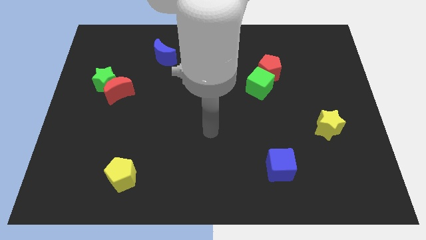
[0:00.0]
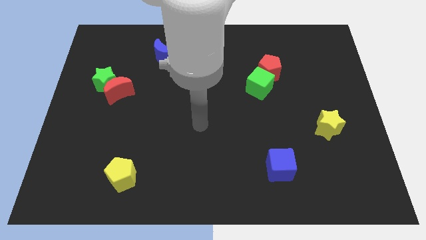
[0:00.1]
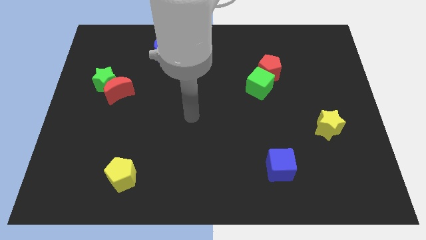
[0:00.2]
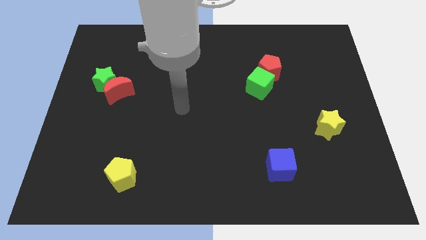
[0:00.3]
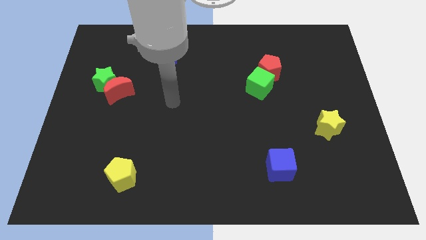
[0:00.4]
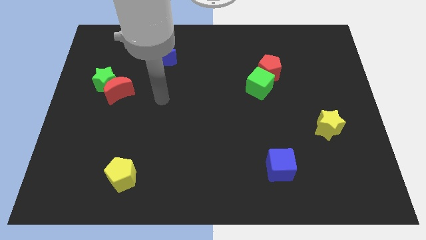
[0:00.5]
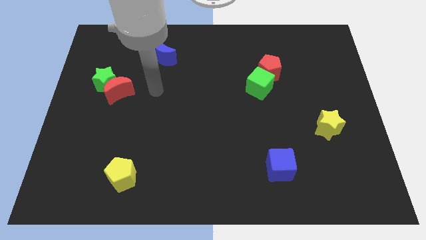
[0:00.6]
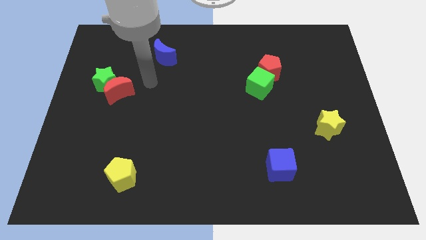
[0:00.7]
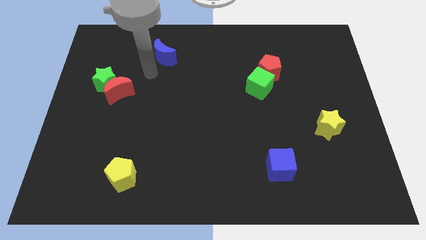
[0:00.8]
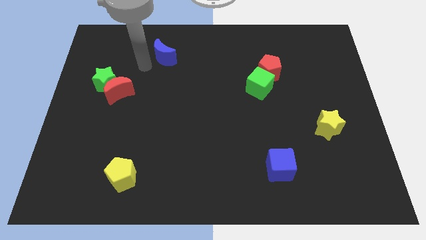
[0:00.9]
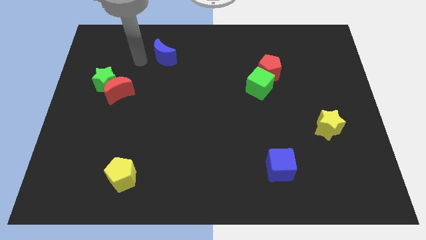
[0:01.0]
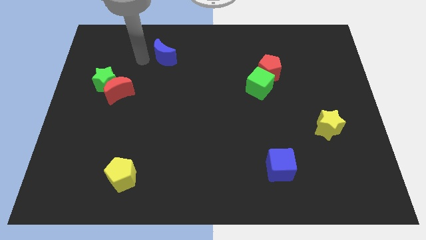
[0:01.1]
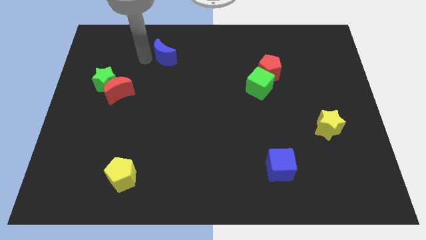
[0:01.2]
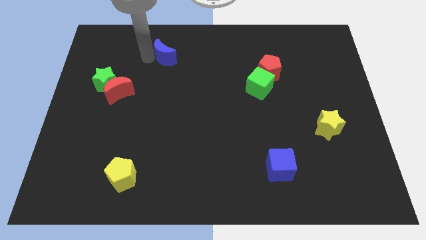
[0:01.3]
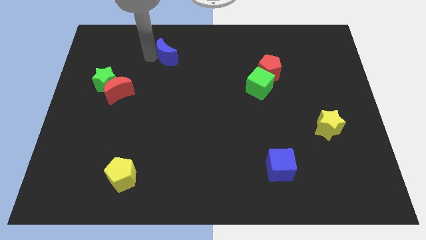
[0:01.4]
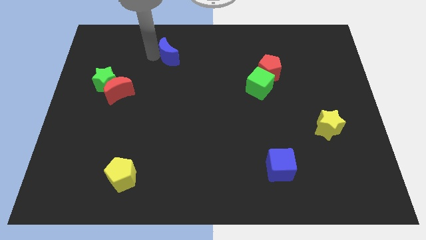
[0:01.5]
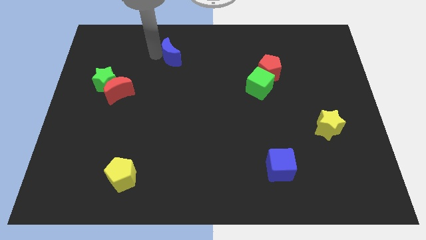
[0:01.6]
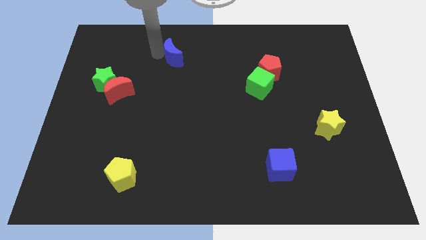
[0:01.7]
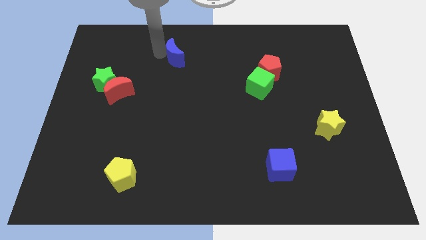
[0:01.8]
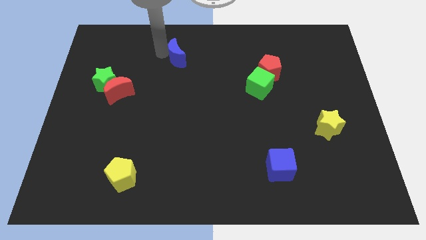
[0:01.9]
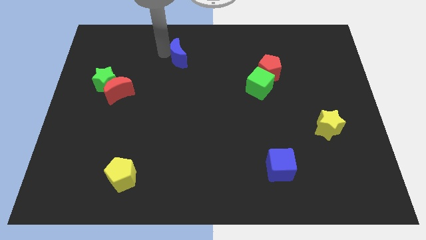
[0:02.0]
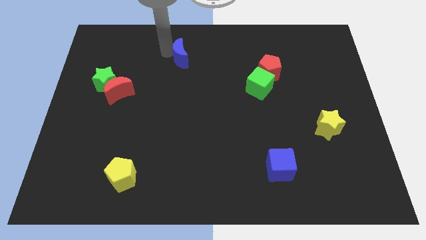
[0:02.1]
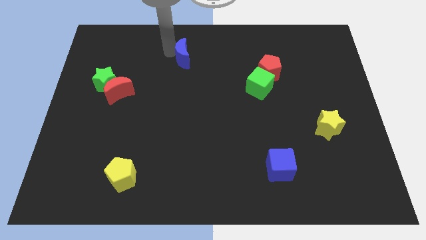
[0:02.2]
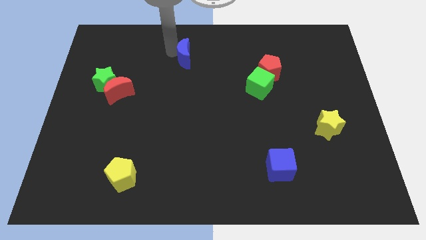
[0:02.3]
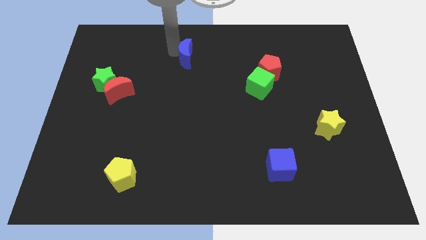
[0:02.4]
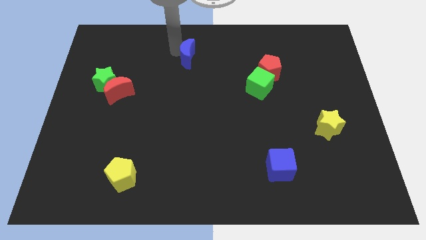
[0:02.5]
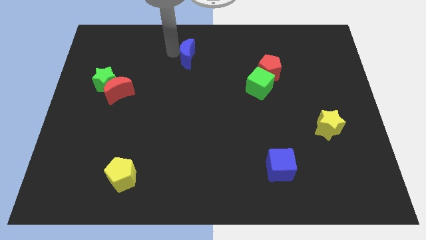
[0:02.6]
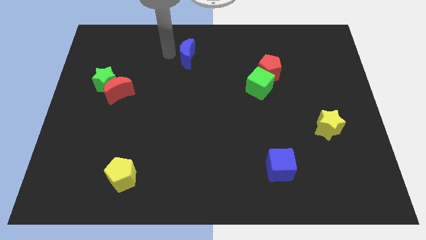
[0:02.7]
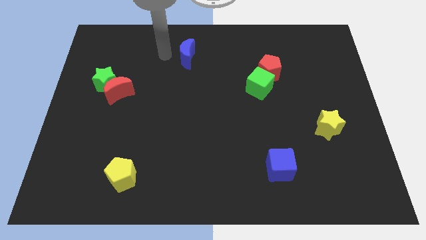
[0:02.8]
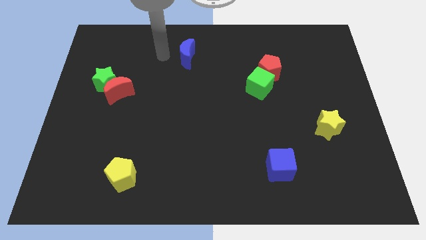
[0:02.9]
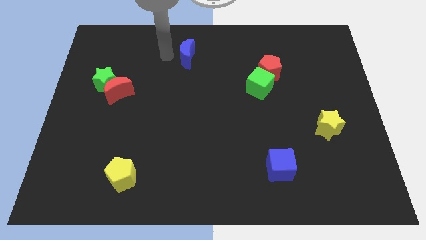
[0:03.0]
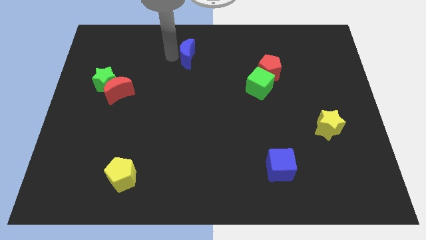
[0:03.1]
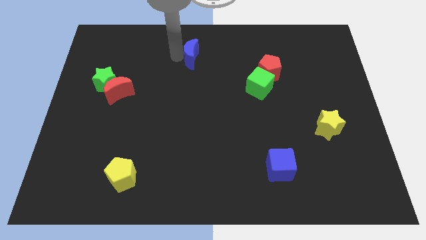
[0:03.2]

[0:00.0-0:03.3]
slightly slide the blue moon right

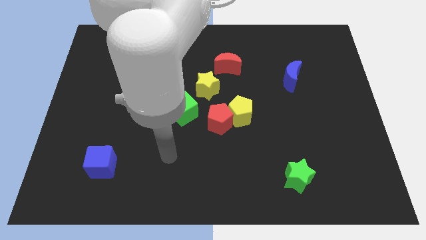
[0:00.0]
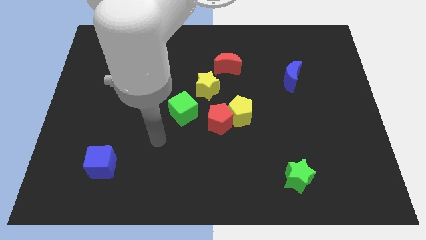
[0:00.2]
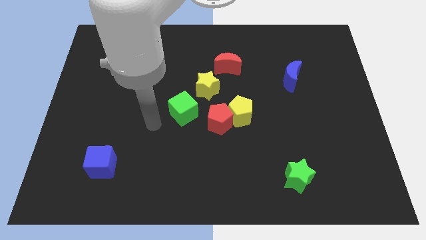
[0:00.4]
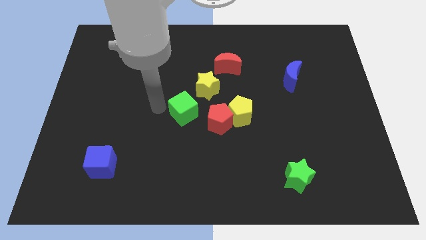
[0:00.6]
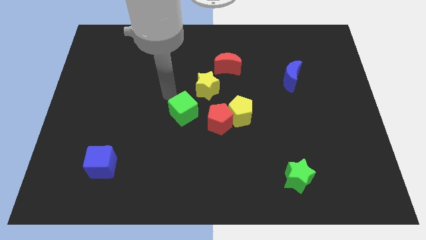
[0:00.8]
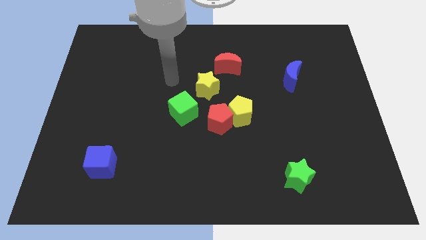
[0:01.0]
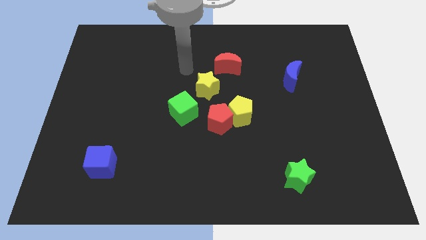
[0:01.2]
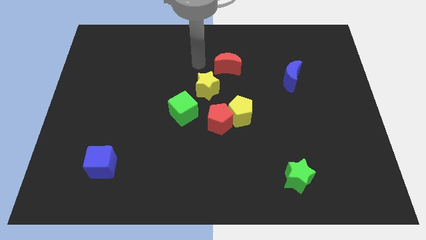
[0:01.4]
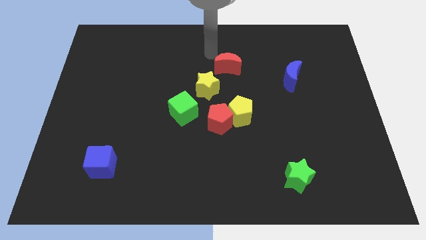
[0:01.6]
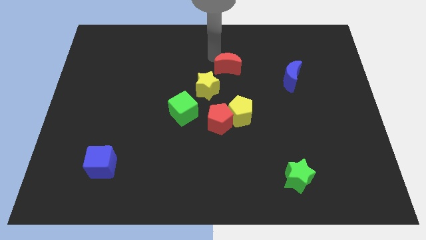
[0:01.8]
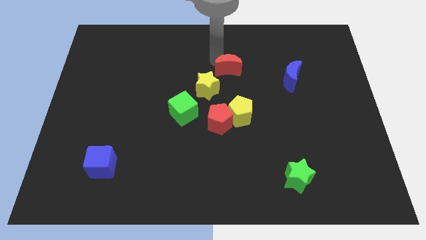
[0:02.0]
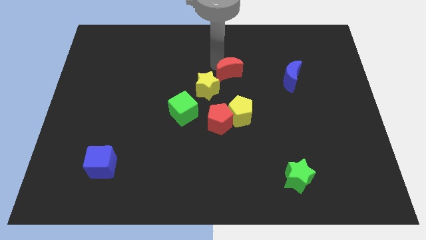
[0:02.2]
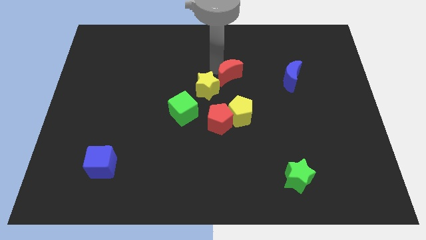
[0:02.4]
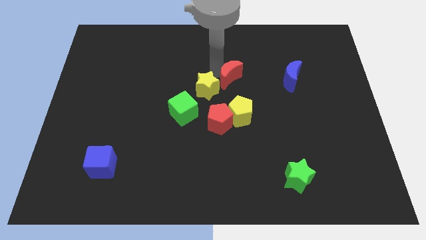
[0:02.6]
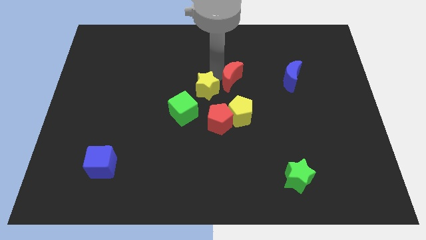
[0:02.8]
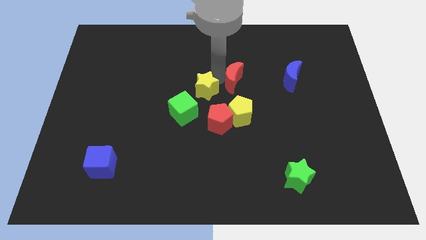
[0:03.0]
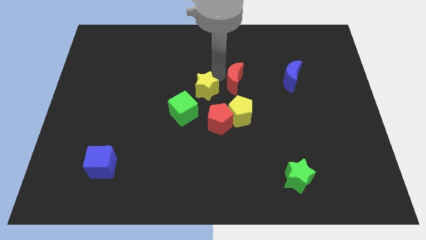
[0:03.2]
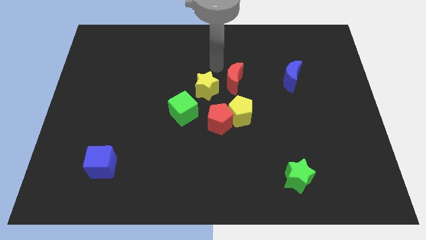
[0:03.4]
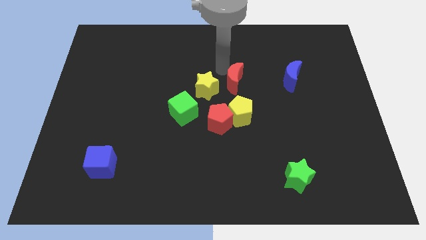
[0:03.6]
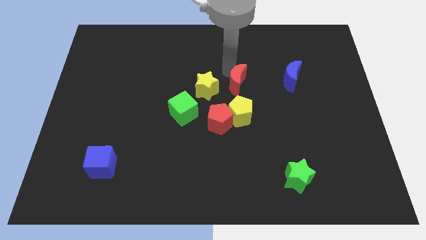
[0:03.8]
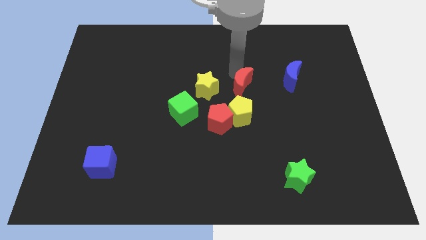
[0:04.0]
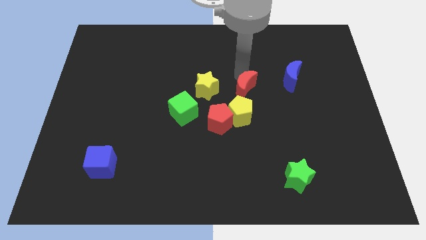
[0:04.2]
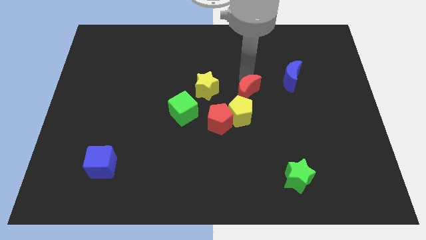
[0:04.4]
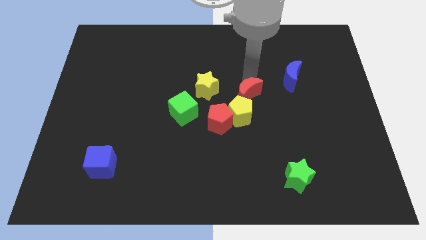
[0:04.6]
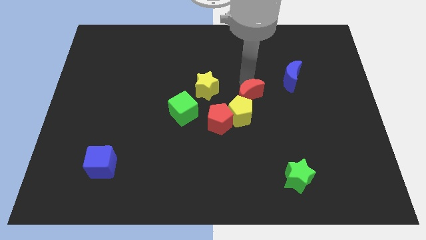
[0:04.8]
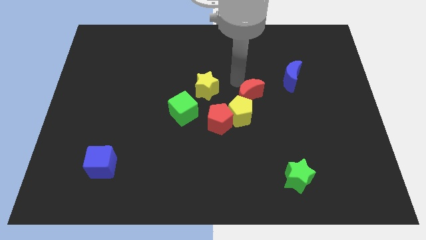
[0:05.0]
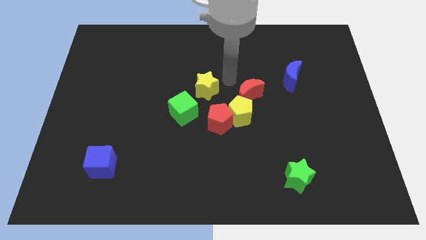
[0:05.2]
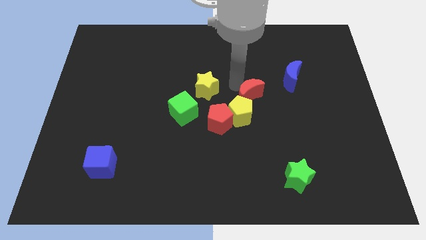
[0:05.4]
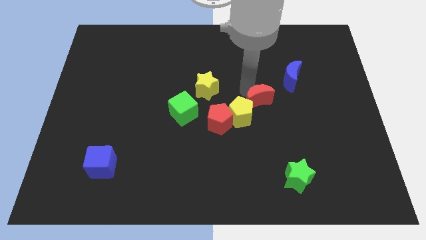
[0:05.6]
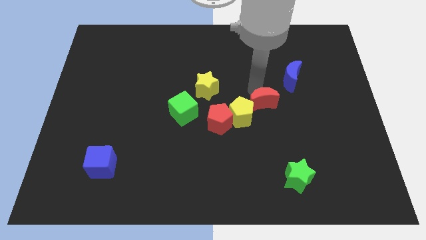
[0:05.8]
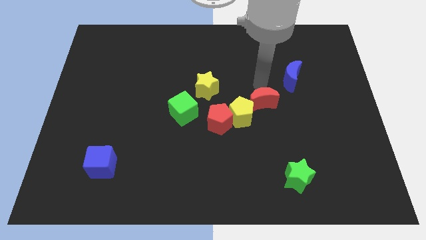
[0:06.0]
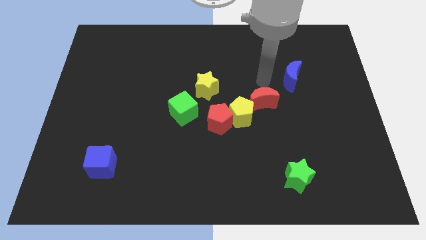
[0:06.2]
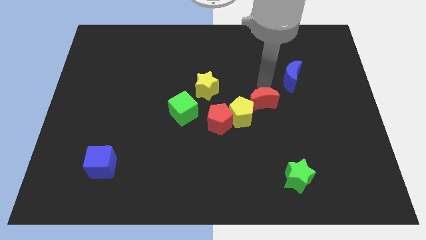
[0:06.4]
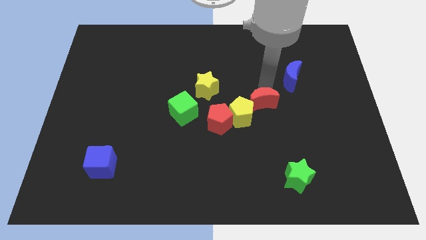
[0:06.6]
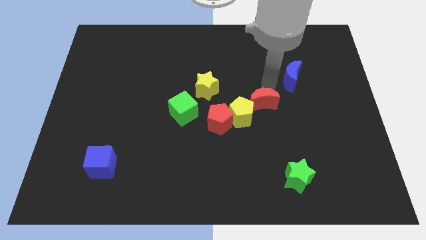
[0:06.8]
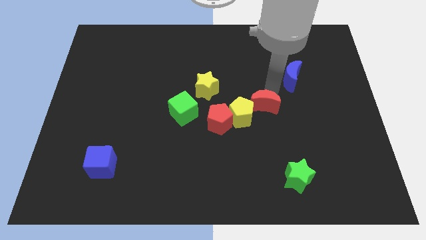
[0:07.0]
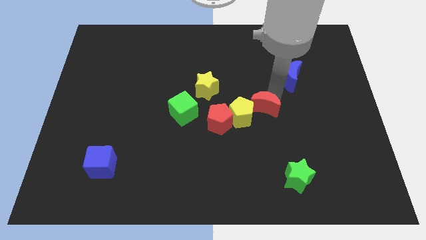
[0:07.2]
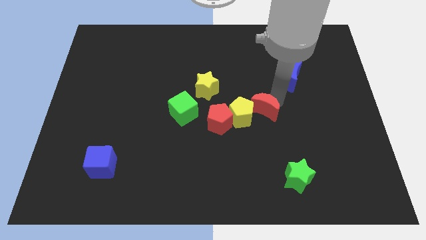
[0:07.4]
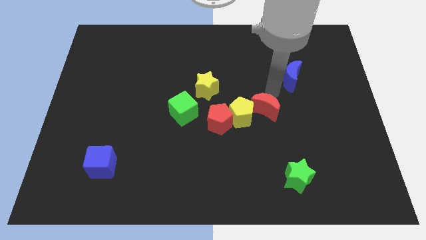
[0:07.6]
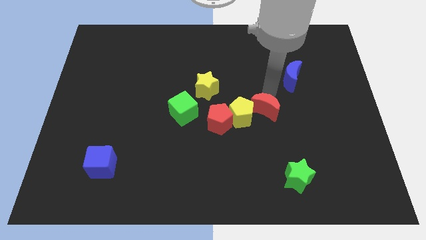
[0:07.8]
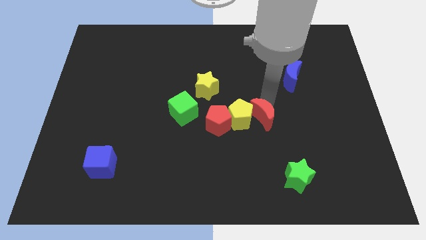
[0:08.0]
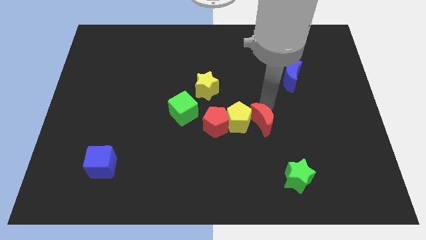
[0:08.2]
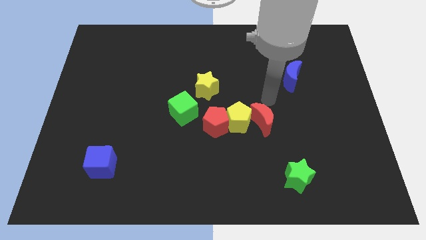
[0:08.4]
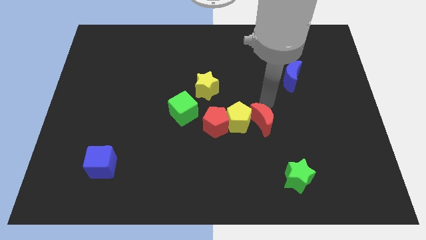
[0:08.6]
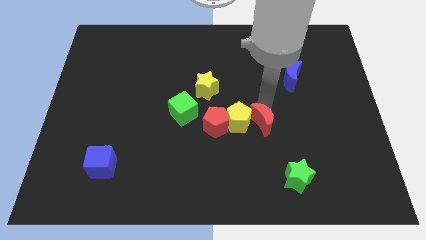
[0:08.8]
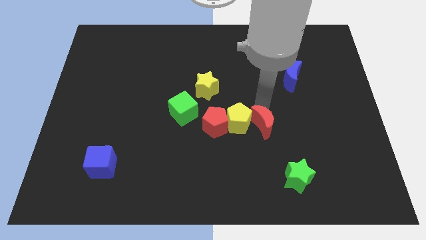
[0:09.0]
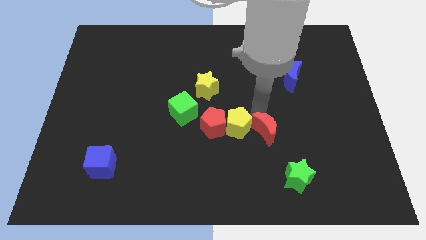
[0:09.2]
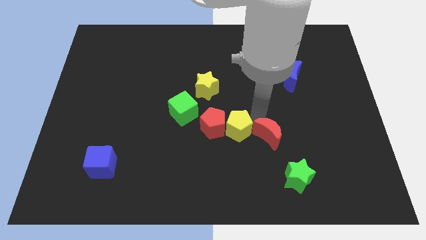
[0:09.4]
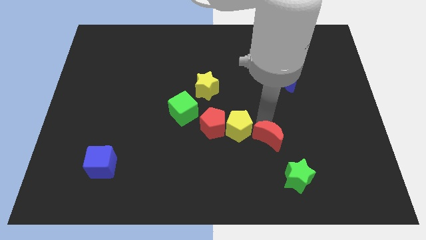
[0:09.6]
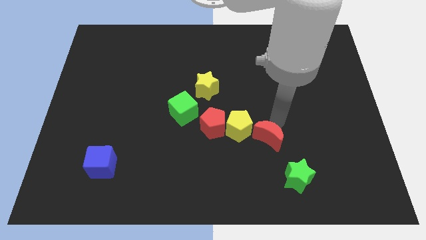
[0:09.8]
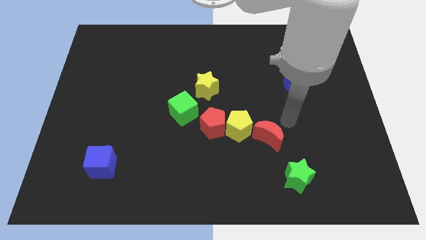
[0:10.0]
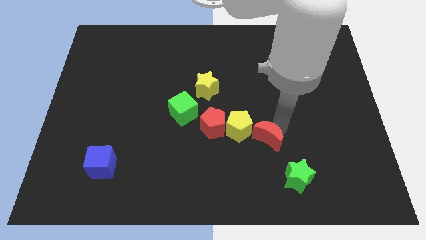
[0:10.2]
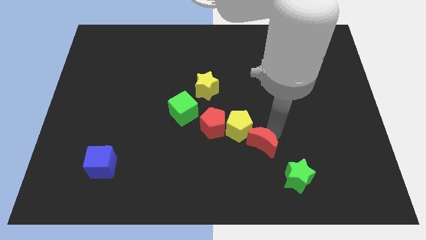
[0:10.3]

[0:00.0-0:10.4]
push the red moon down
